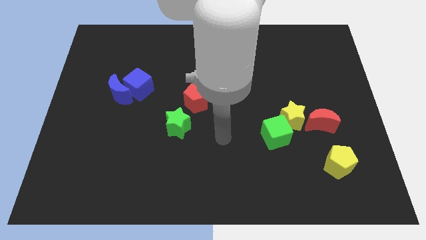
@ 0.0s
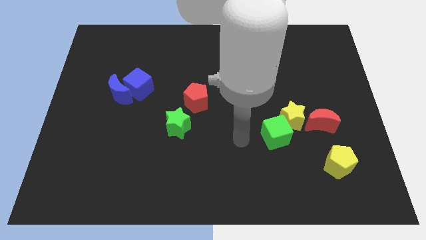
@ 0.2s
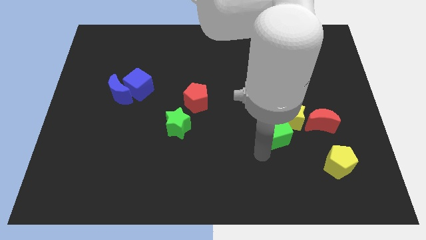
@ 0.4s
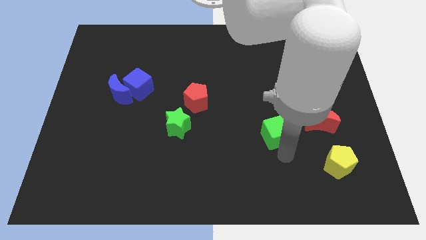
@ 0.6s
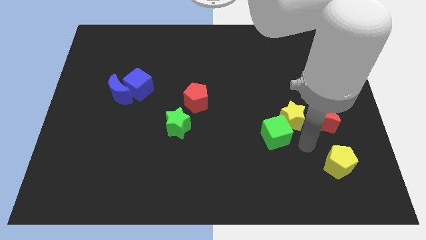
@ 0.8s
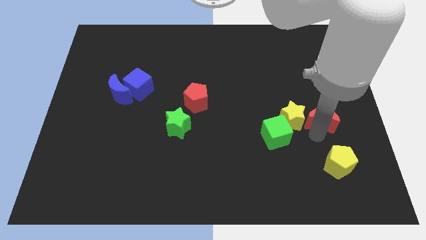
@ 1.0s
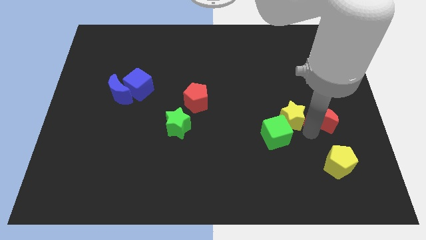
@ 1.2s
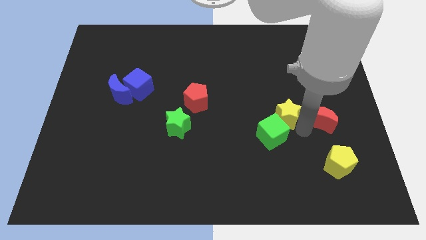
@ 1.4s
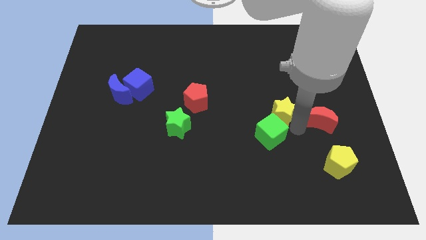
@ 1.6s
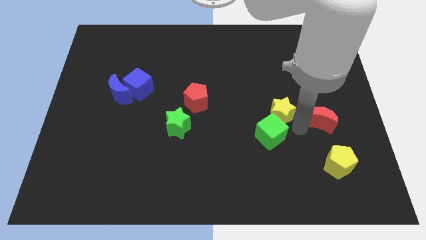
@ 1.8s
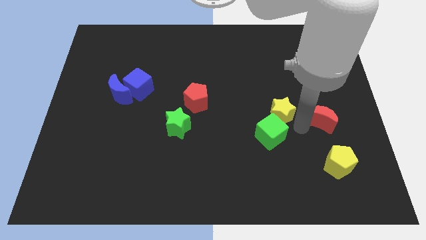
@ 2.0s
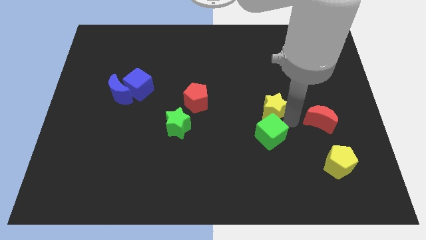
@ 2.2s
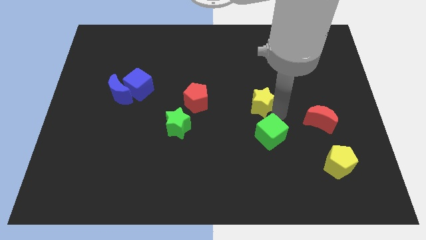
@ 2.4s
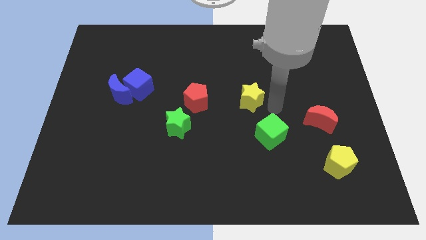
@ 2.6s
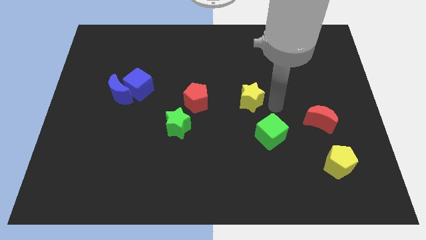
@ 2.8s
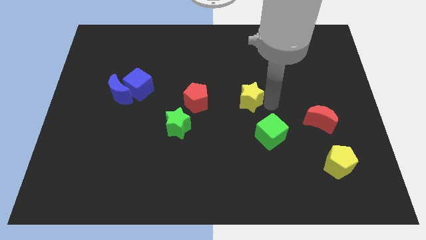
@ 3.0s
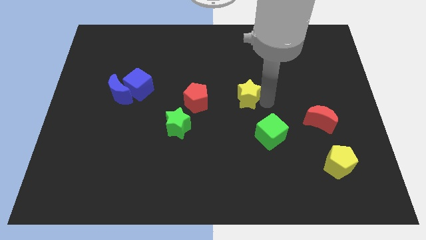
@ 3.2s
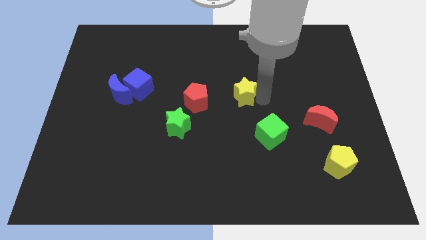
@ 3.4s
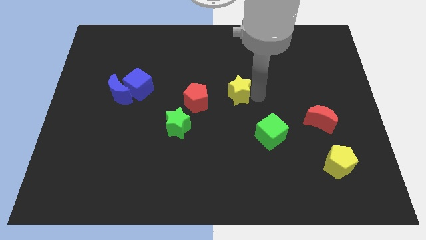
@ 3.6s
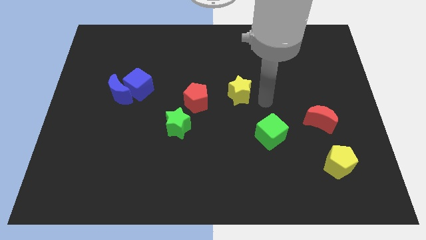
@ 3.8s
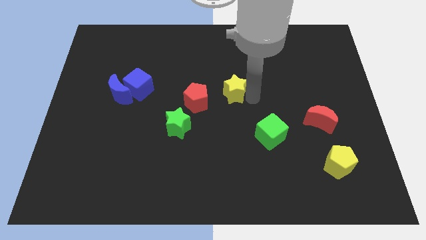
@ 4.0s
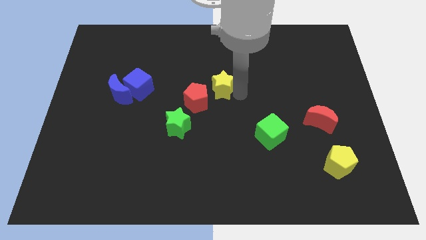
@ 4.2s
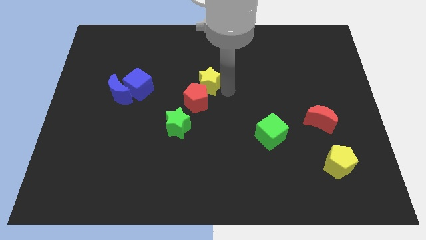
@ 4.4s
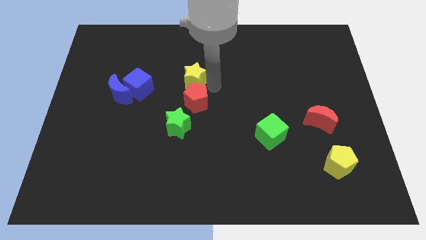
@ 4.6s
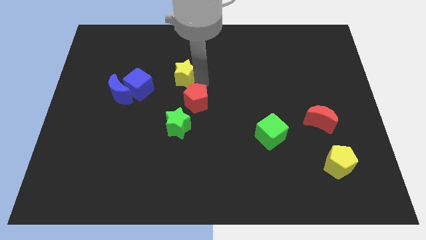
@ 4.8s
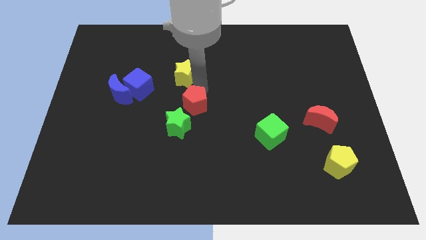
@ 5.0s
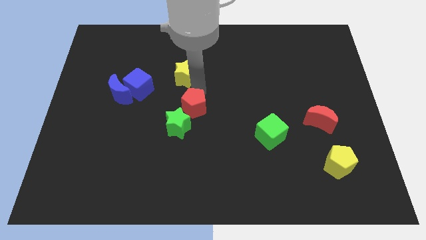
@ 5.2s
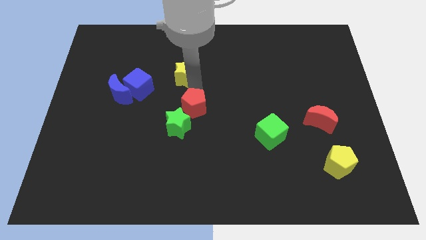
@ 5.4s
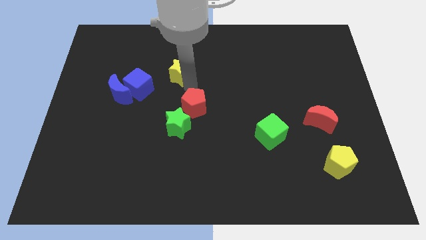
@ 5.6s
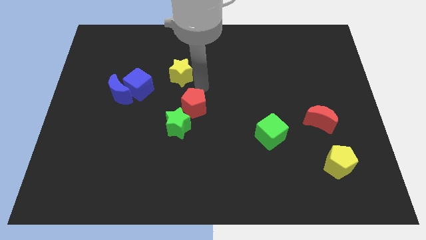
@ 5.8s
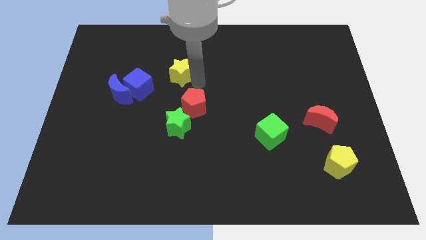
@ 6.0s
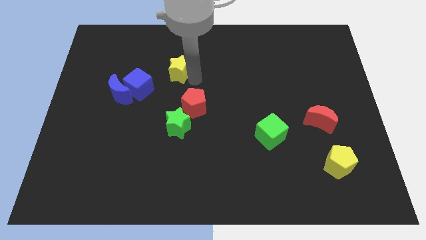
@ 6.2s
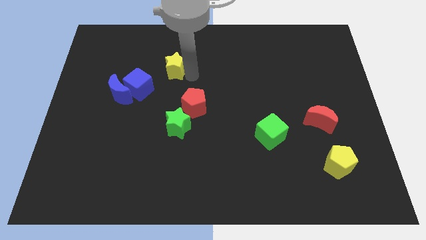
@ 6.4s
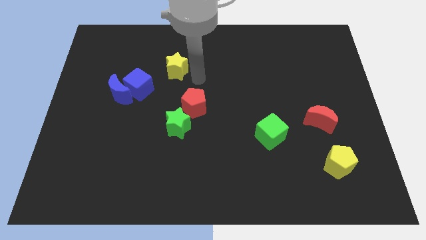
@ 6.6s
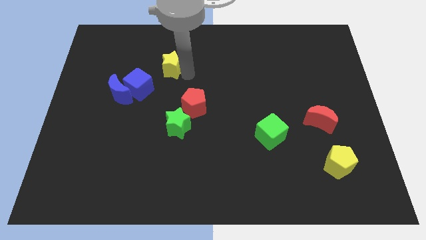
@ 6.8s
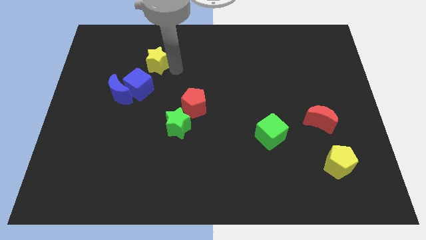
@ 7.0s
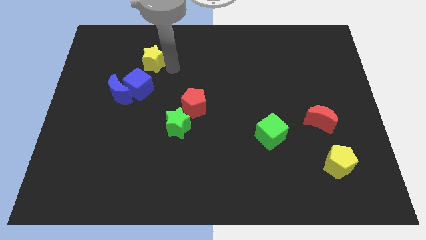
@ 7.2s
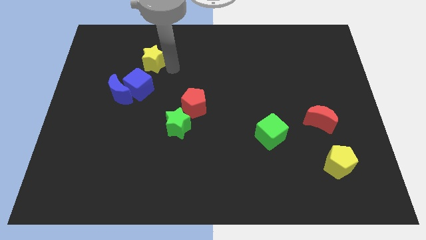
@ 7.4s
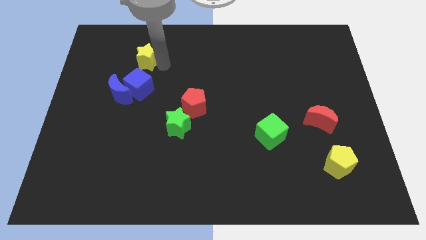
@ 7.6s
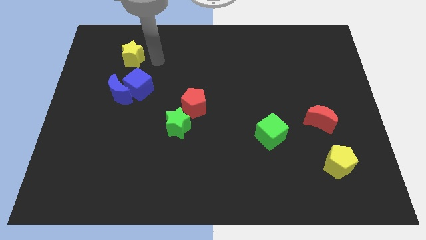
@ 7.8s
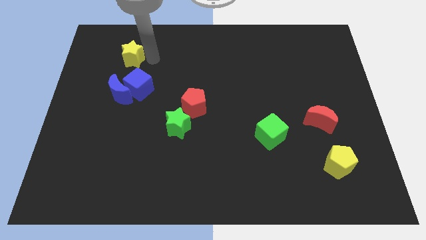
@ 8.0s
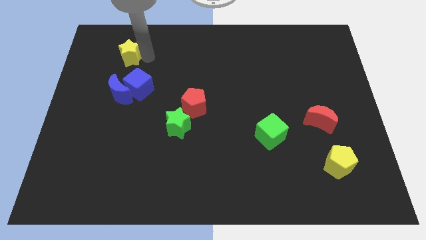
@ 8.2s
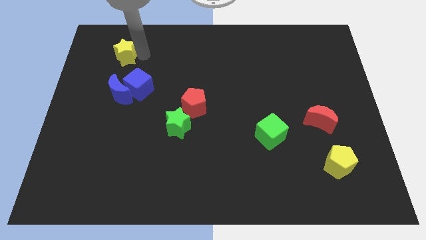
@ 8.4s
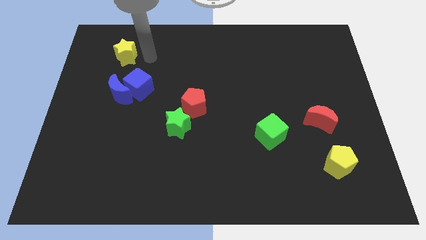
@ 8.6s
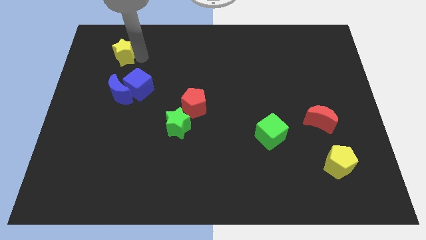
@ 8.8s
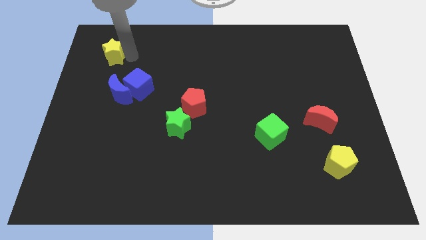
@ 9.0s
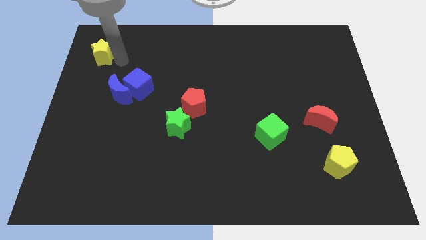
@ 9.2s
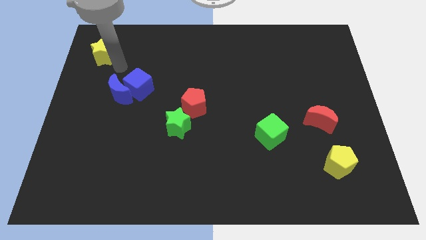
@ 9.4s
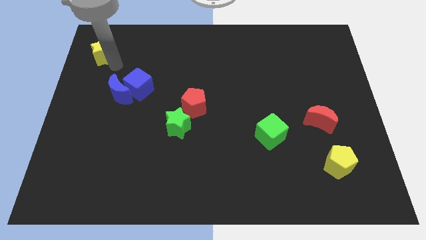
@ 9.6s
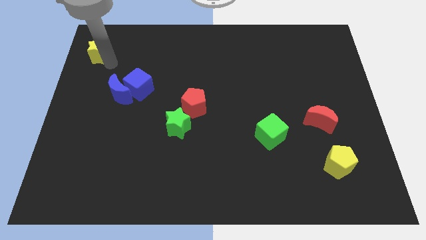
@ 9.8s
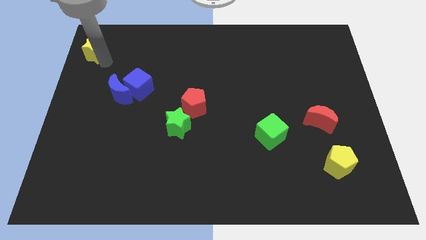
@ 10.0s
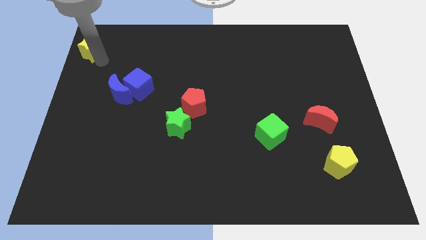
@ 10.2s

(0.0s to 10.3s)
put the yellow star to the top left of the board

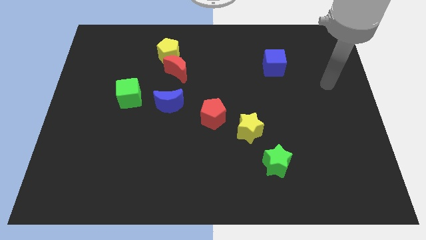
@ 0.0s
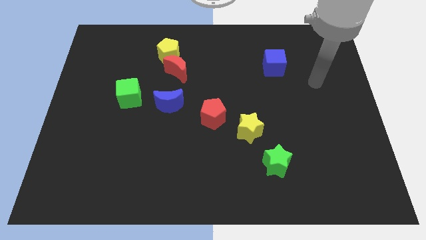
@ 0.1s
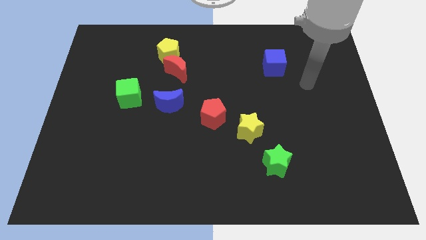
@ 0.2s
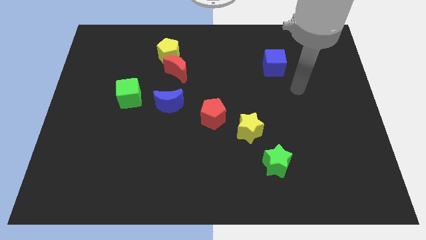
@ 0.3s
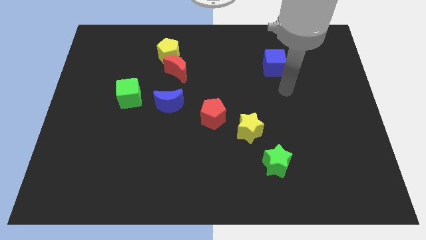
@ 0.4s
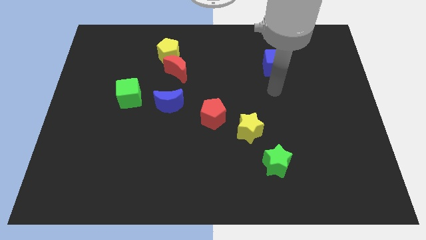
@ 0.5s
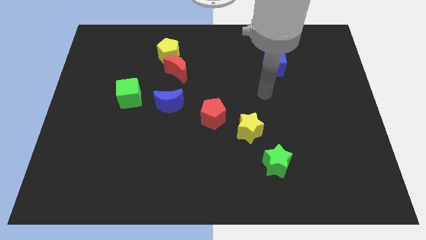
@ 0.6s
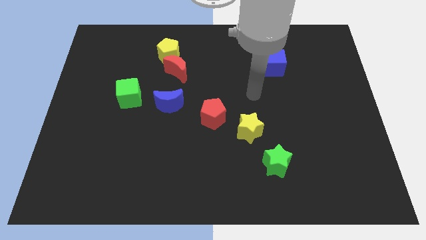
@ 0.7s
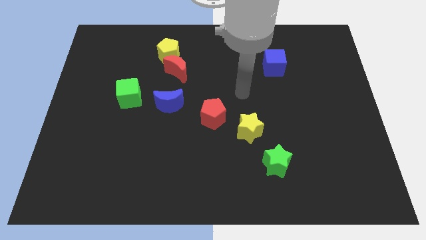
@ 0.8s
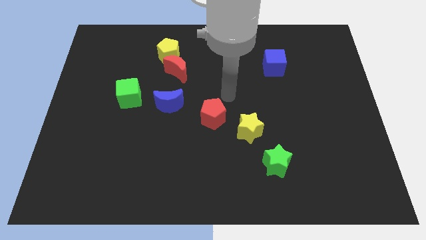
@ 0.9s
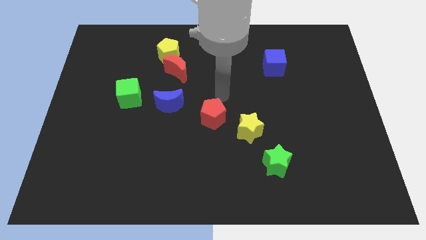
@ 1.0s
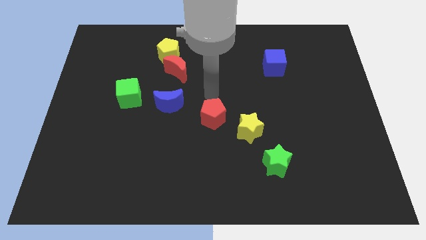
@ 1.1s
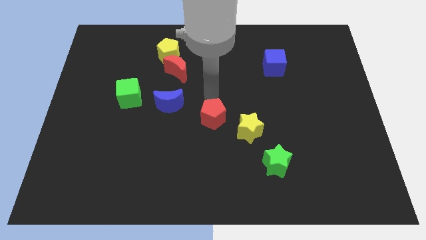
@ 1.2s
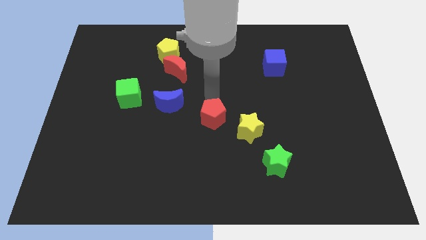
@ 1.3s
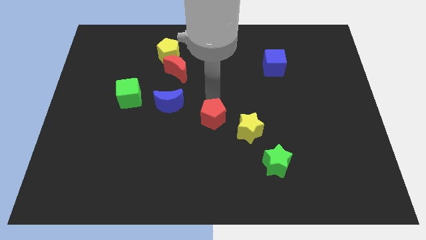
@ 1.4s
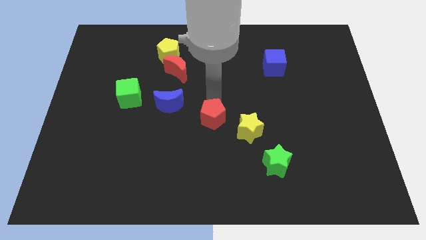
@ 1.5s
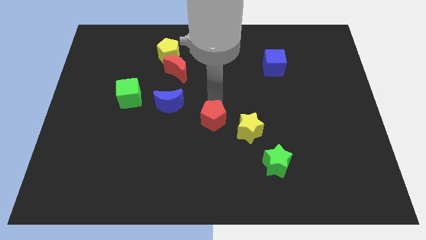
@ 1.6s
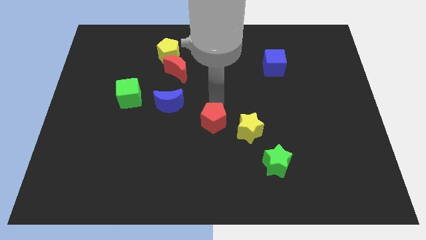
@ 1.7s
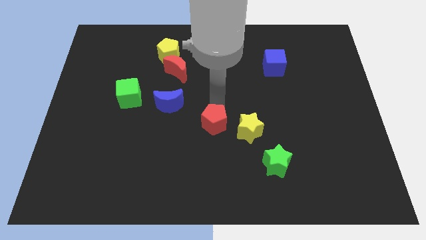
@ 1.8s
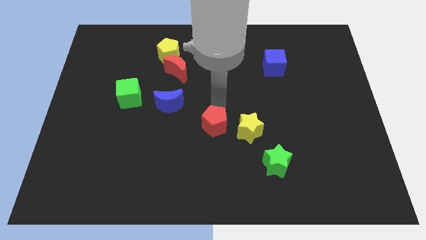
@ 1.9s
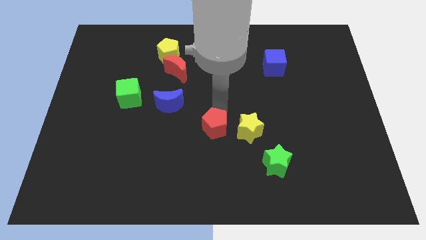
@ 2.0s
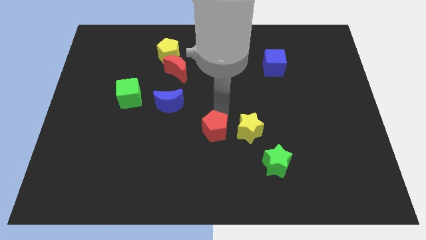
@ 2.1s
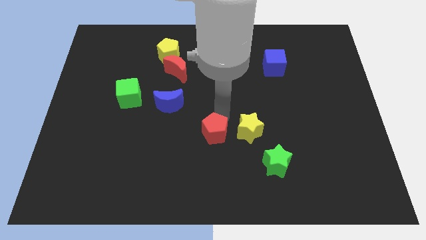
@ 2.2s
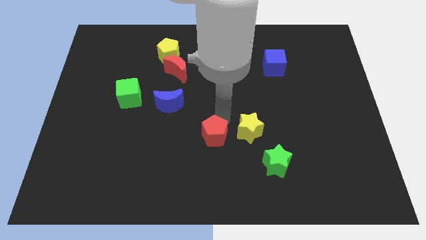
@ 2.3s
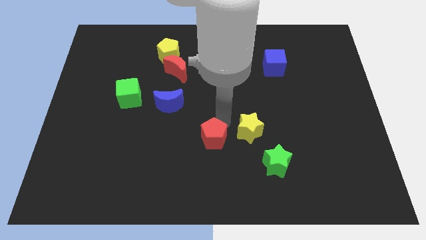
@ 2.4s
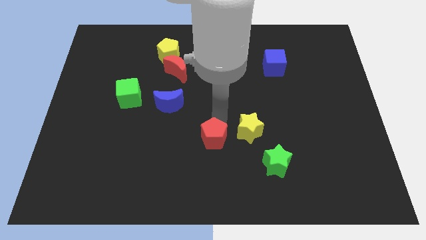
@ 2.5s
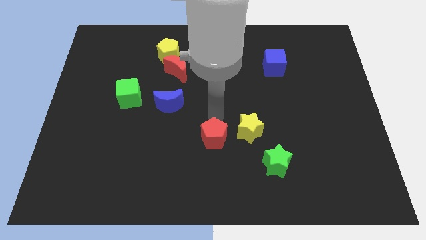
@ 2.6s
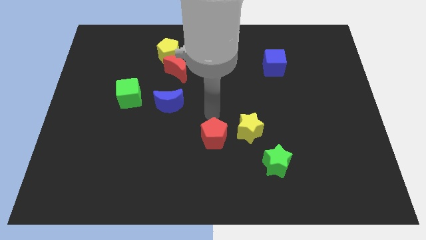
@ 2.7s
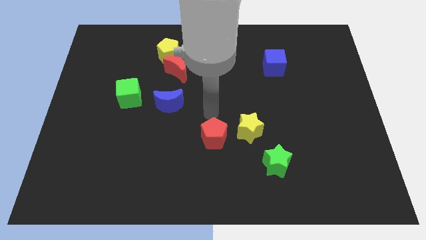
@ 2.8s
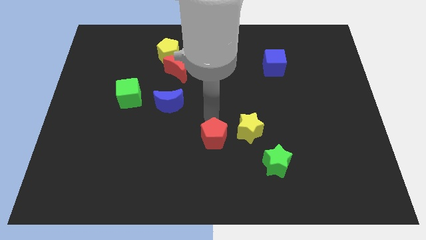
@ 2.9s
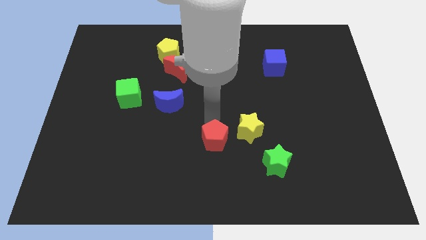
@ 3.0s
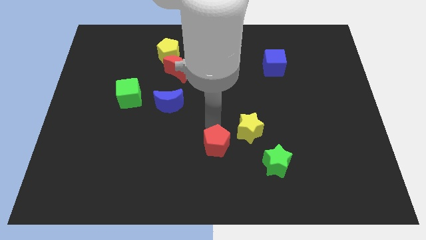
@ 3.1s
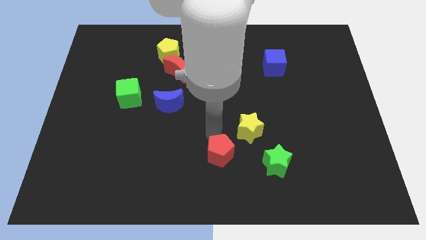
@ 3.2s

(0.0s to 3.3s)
slide the red pentagon to the bottom side
